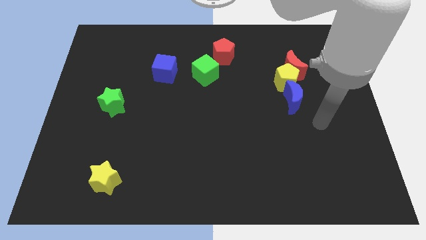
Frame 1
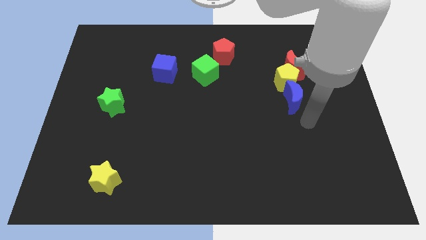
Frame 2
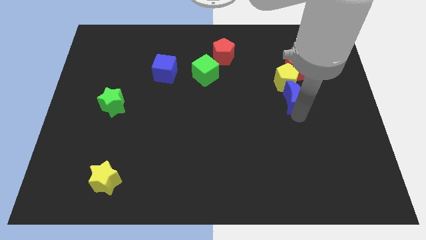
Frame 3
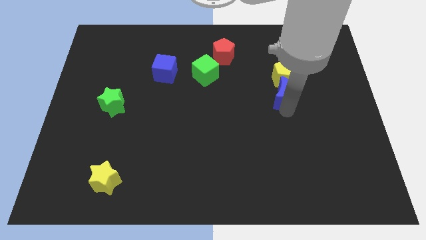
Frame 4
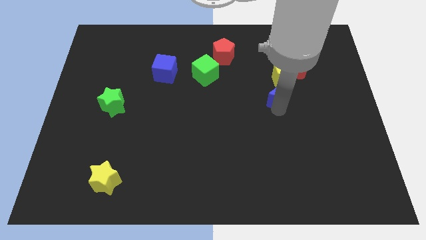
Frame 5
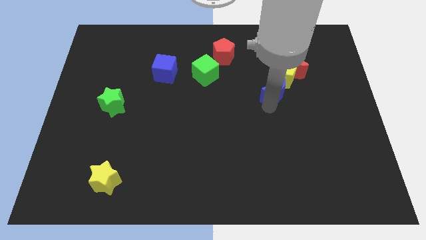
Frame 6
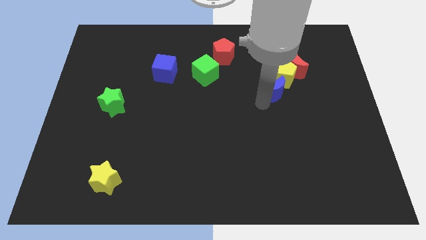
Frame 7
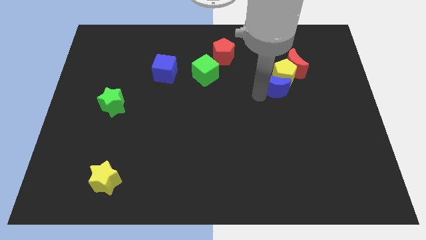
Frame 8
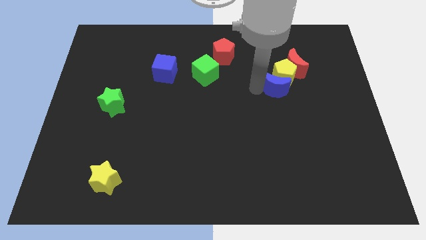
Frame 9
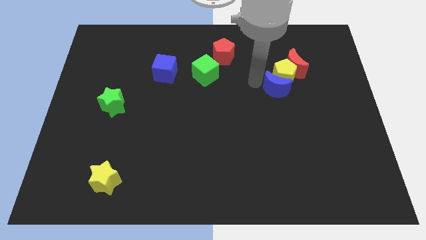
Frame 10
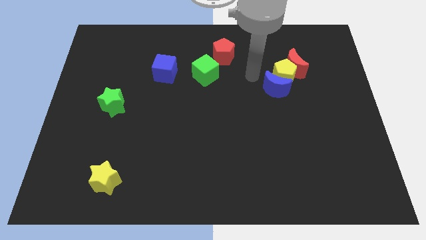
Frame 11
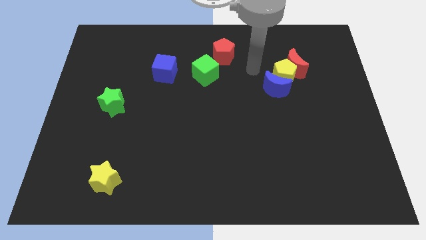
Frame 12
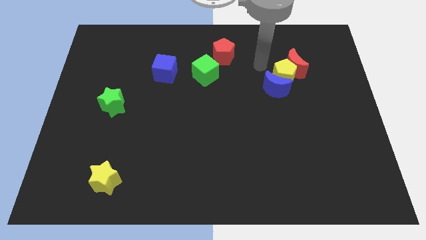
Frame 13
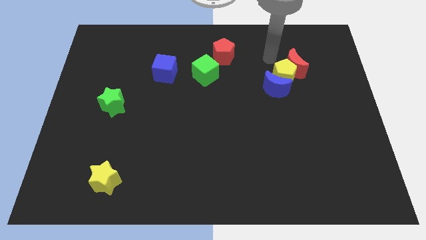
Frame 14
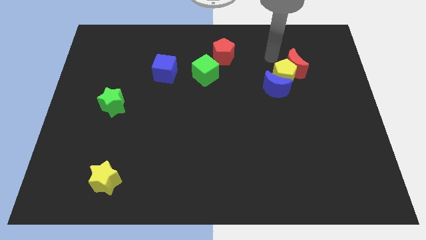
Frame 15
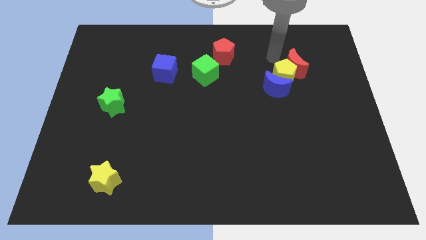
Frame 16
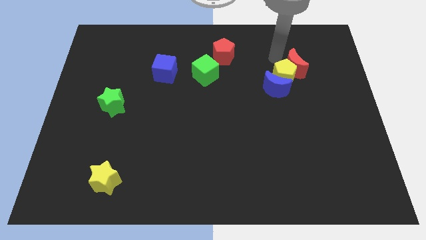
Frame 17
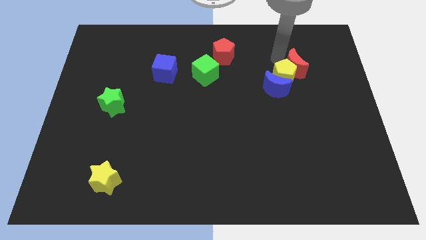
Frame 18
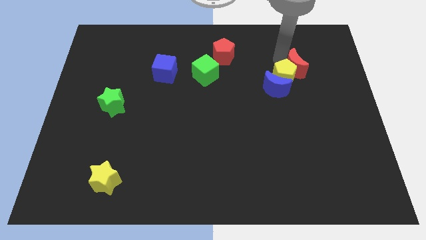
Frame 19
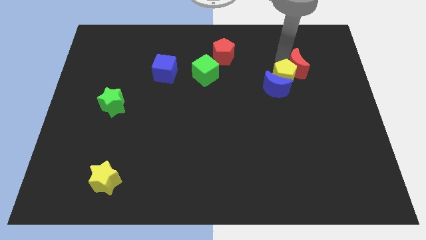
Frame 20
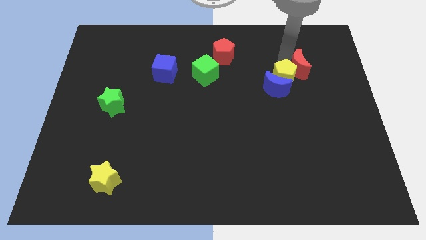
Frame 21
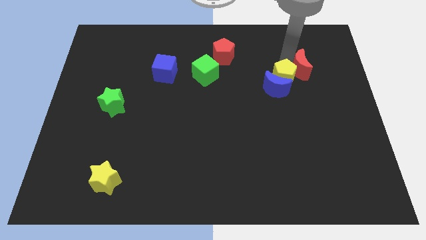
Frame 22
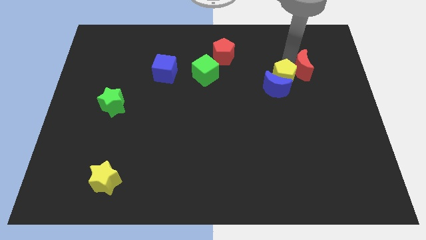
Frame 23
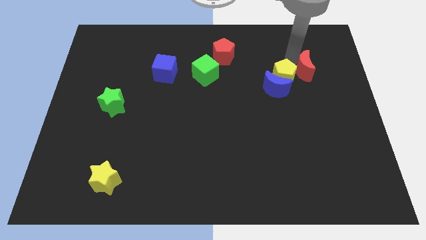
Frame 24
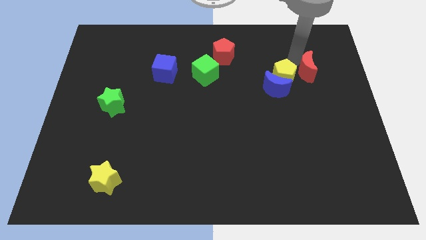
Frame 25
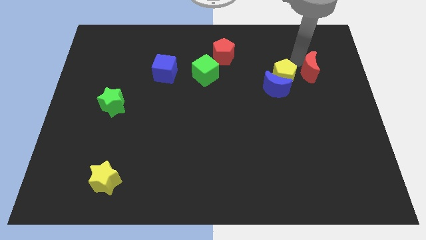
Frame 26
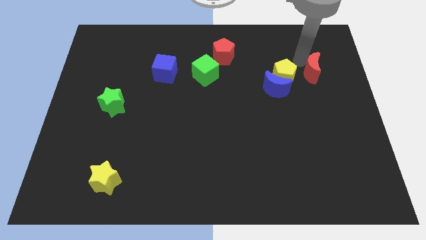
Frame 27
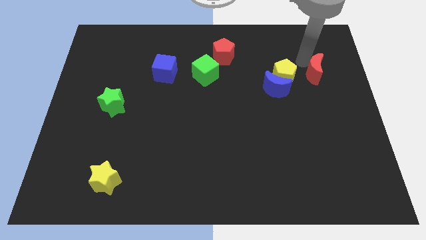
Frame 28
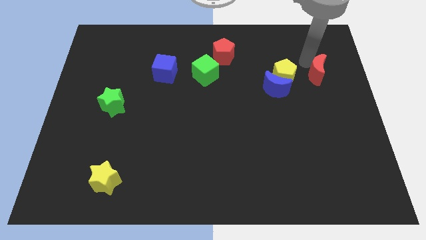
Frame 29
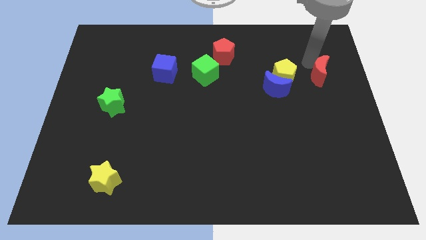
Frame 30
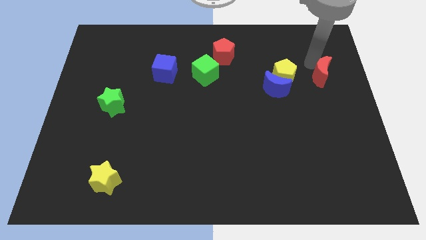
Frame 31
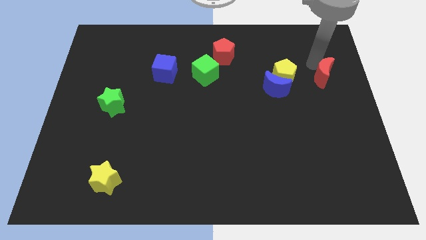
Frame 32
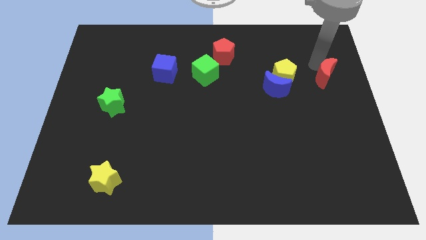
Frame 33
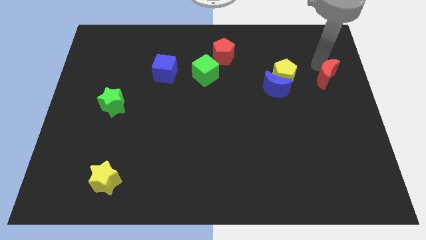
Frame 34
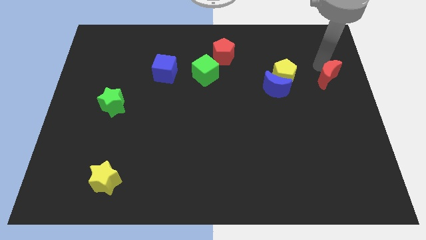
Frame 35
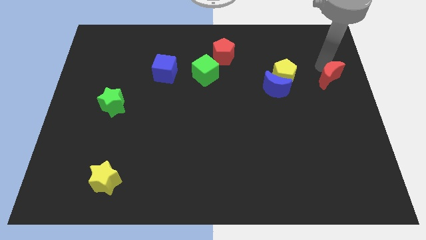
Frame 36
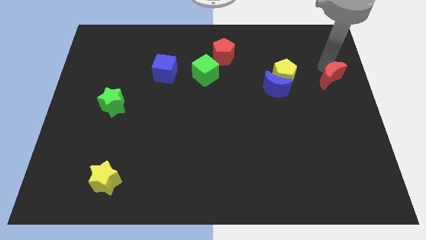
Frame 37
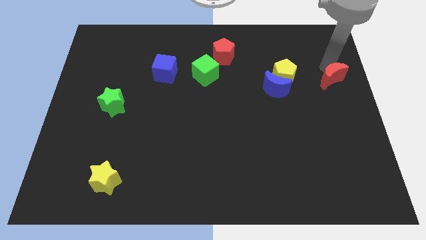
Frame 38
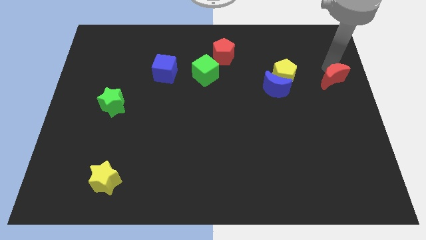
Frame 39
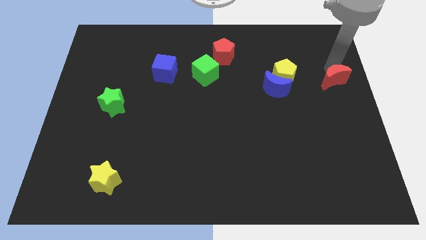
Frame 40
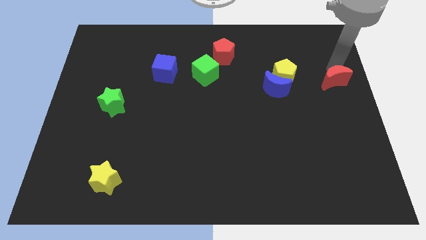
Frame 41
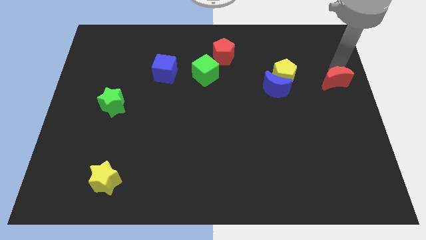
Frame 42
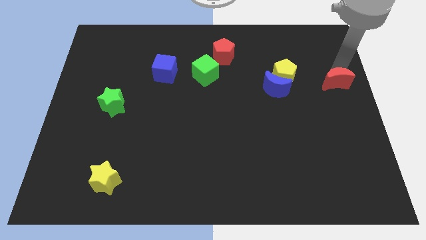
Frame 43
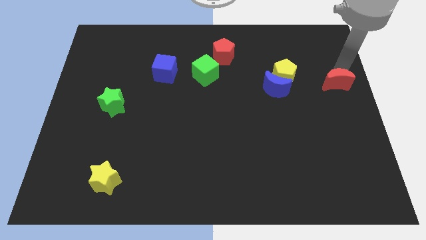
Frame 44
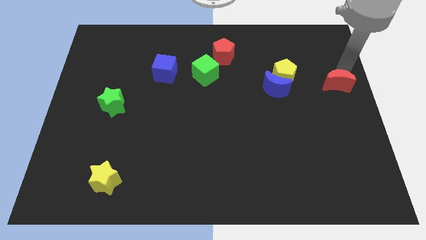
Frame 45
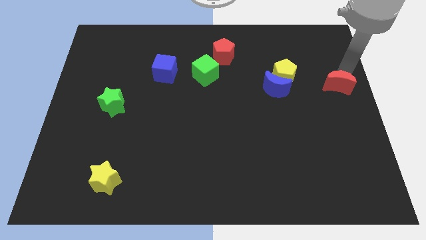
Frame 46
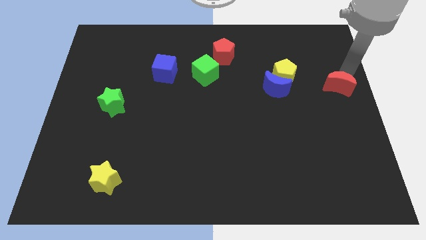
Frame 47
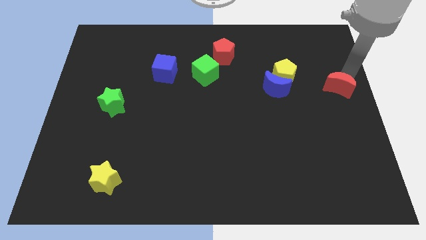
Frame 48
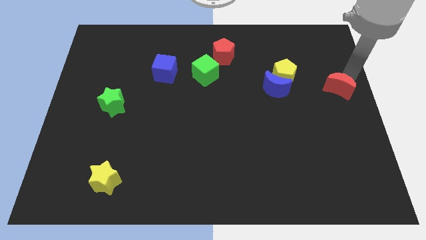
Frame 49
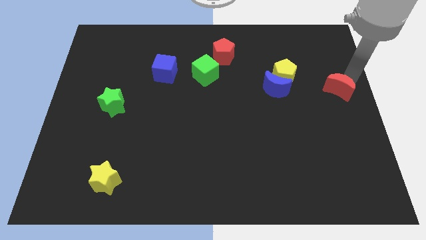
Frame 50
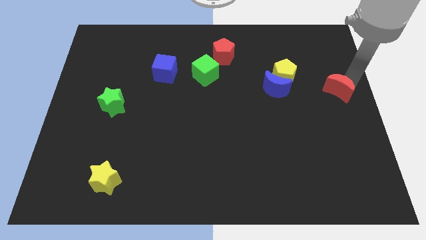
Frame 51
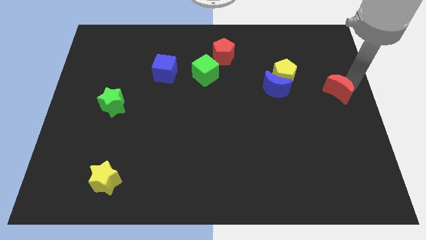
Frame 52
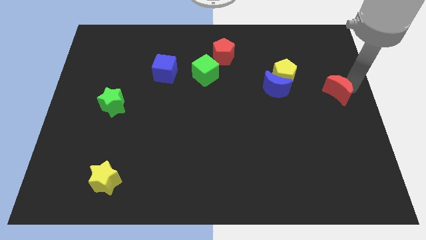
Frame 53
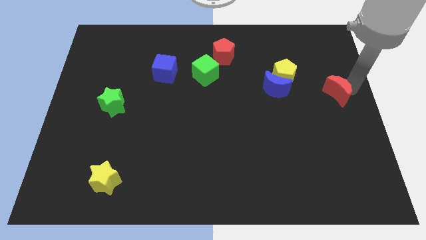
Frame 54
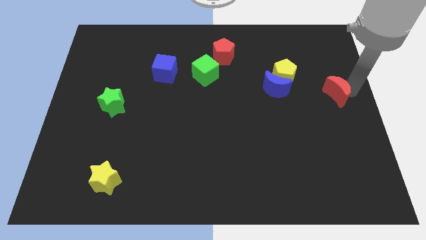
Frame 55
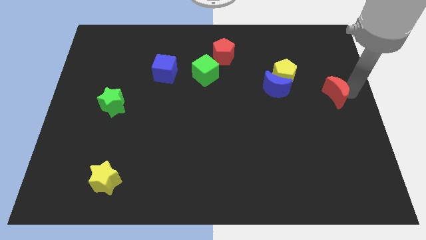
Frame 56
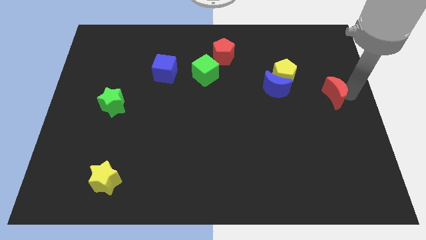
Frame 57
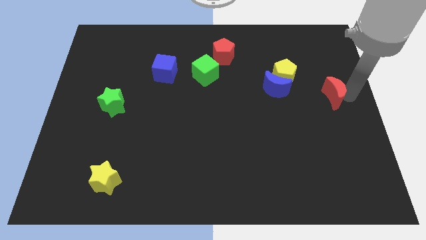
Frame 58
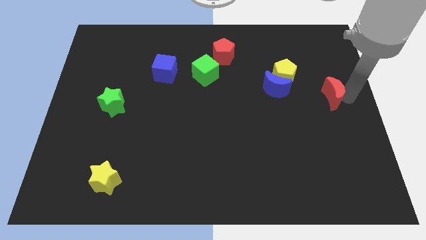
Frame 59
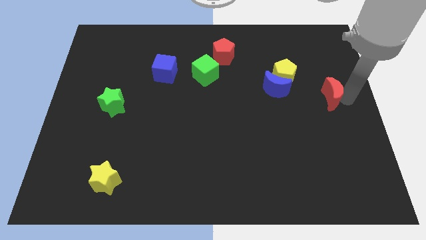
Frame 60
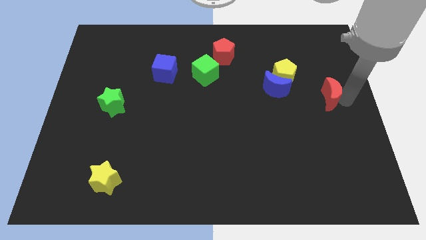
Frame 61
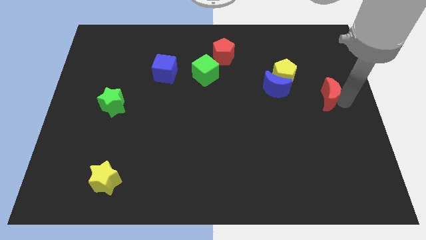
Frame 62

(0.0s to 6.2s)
slightly move the red moon down

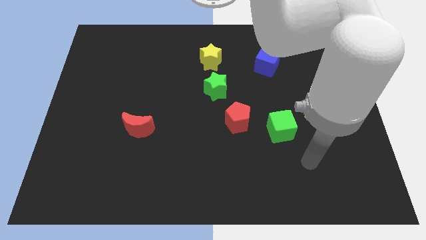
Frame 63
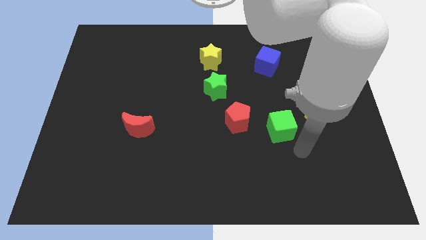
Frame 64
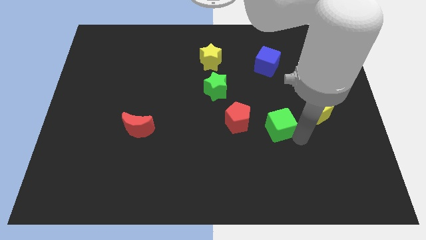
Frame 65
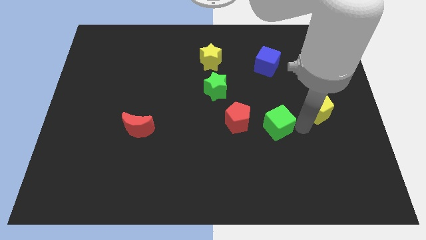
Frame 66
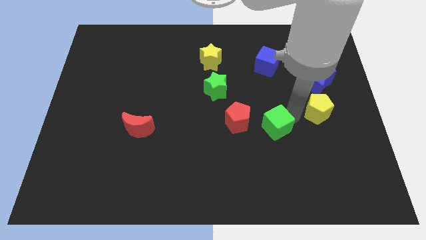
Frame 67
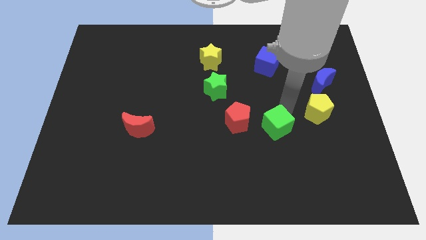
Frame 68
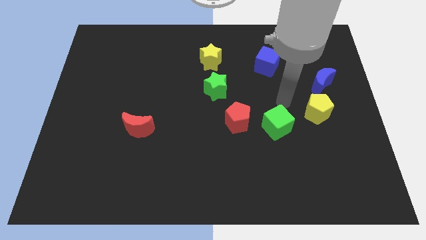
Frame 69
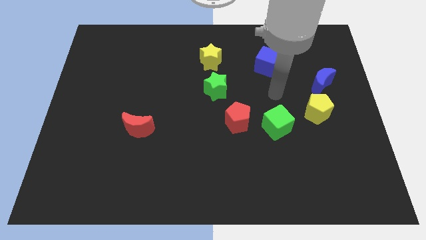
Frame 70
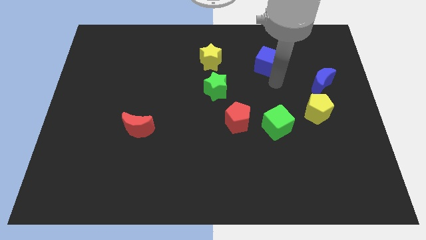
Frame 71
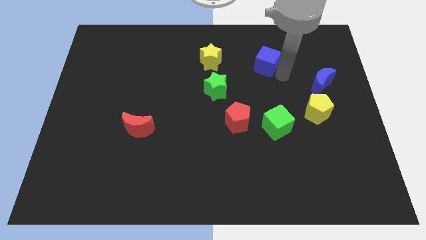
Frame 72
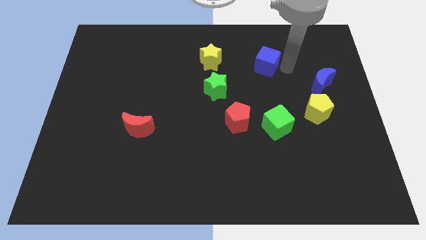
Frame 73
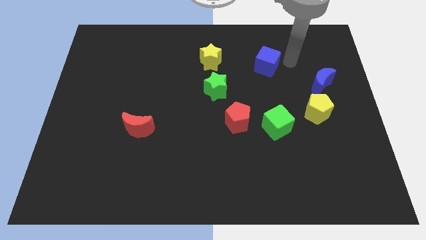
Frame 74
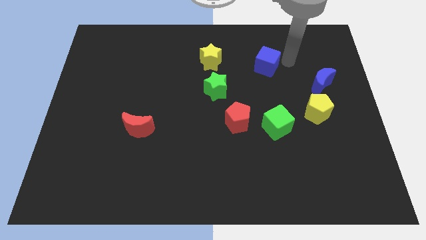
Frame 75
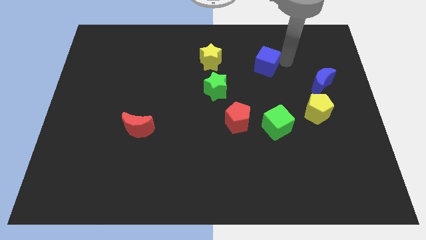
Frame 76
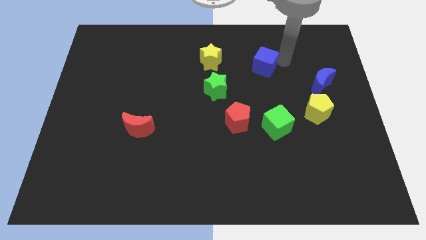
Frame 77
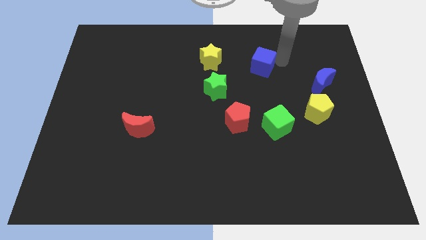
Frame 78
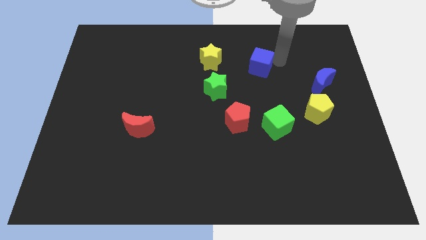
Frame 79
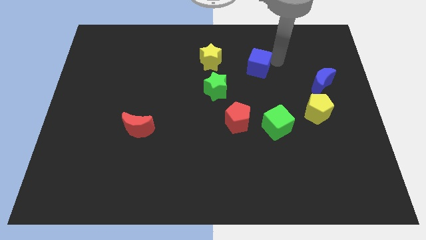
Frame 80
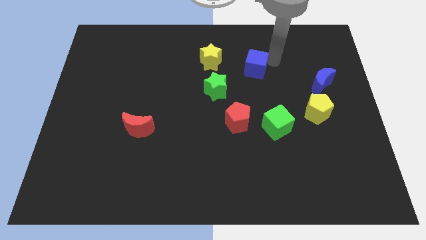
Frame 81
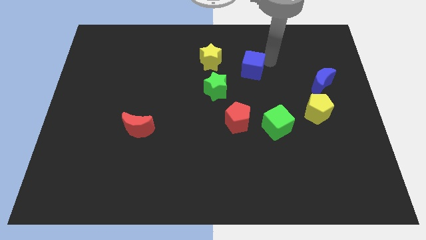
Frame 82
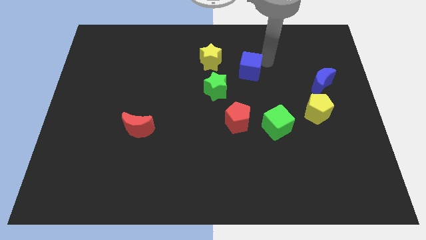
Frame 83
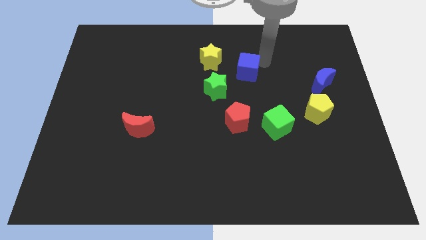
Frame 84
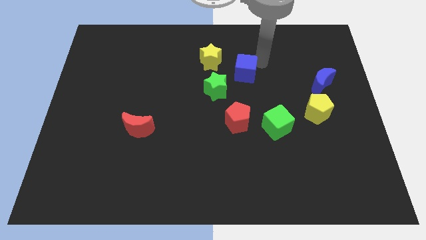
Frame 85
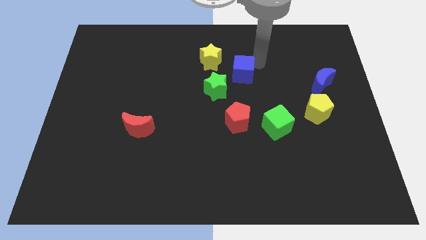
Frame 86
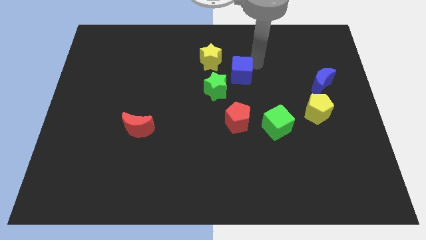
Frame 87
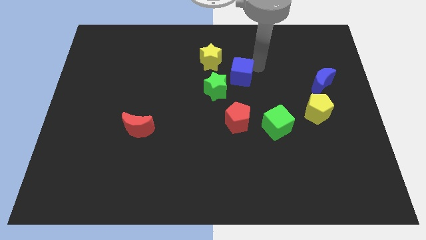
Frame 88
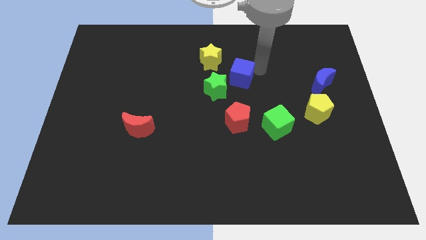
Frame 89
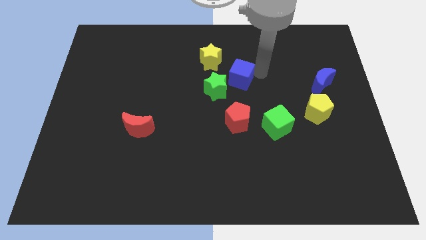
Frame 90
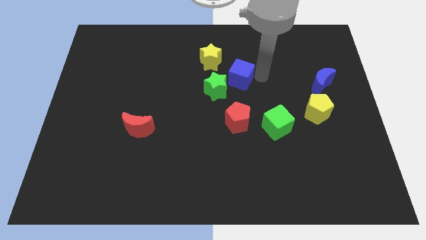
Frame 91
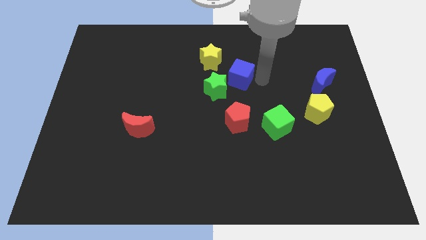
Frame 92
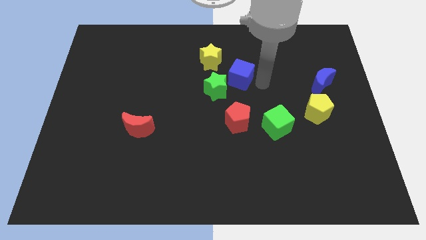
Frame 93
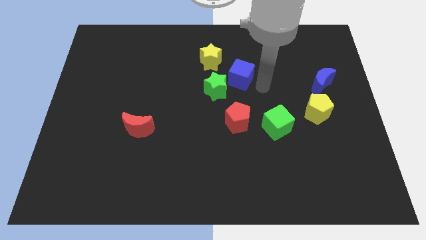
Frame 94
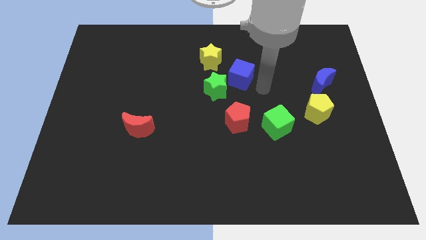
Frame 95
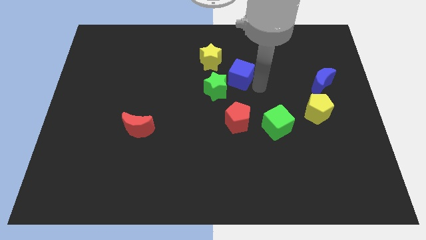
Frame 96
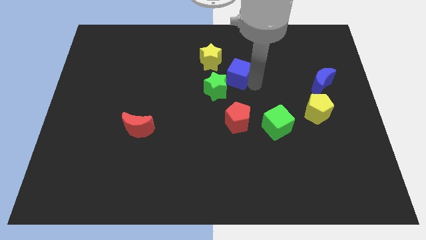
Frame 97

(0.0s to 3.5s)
slide the blue cube somewhat to the left
